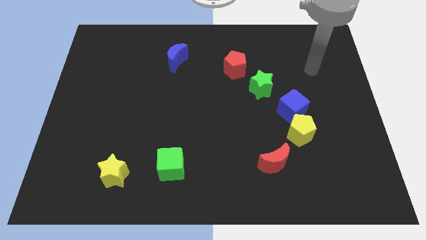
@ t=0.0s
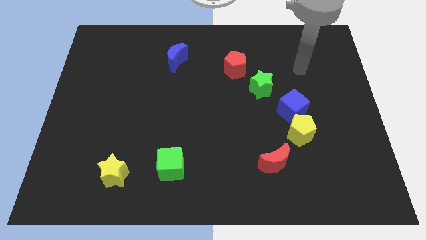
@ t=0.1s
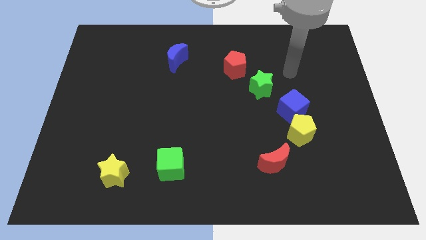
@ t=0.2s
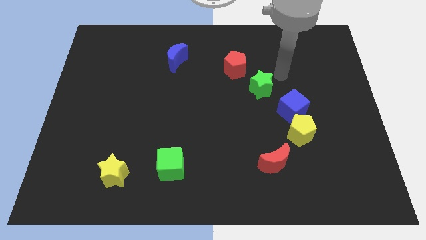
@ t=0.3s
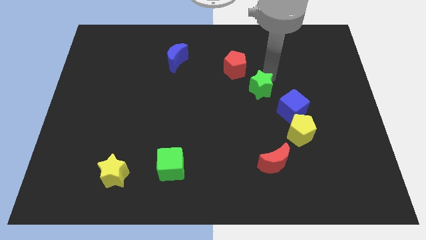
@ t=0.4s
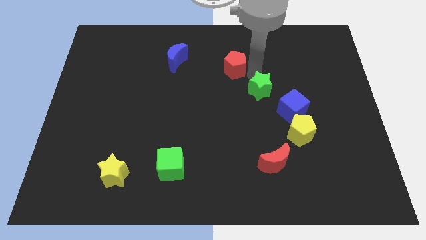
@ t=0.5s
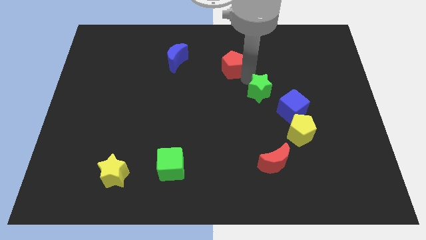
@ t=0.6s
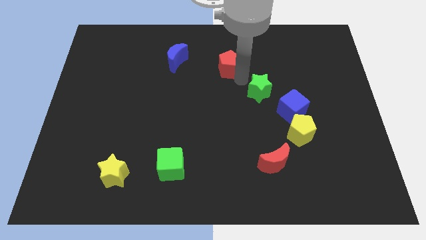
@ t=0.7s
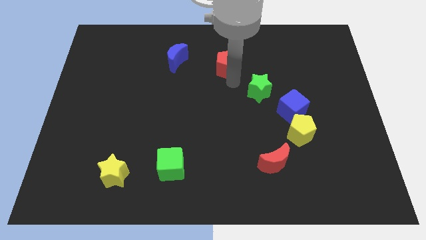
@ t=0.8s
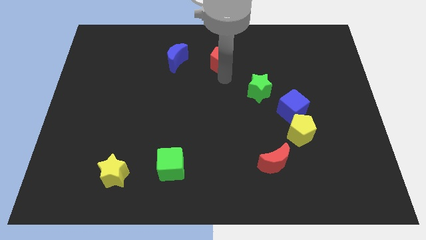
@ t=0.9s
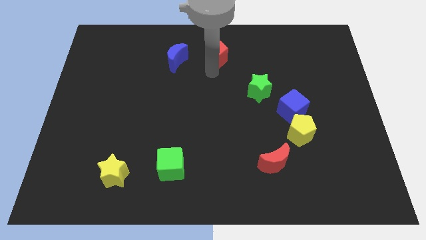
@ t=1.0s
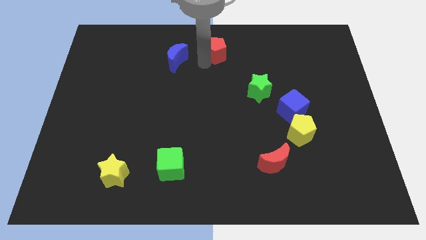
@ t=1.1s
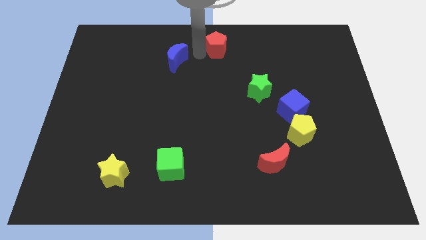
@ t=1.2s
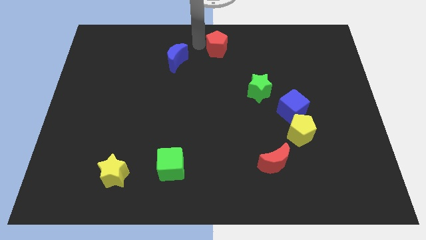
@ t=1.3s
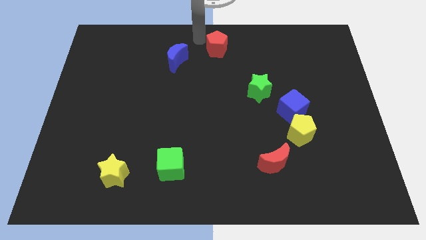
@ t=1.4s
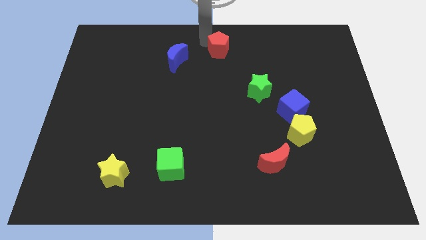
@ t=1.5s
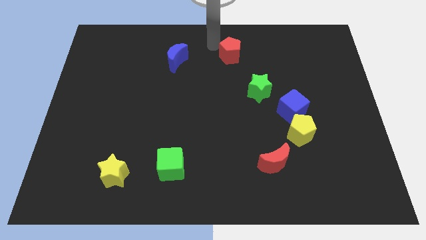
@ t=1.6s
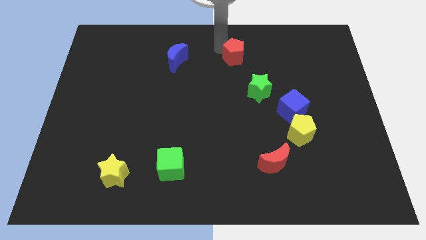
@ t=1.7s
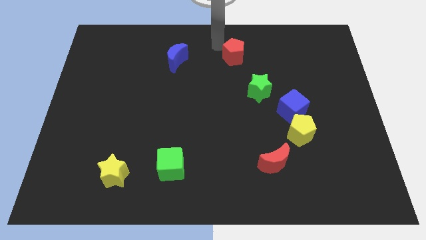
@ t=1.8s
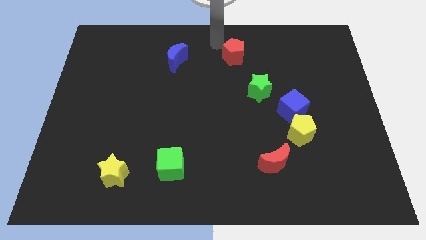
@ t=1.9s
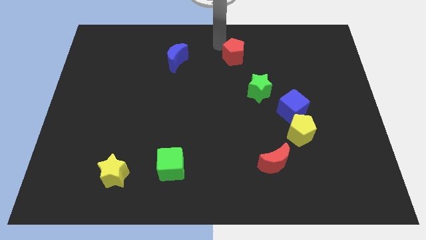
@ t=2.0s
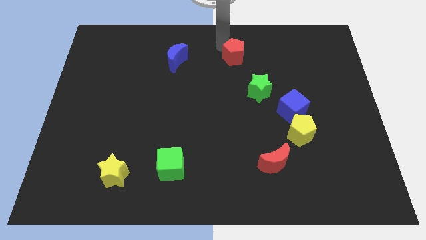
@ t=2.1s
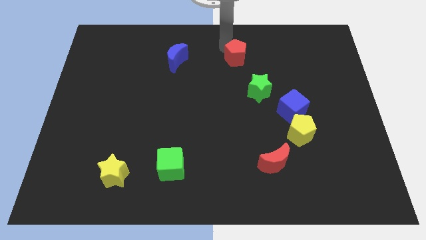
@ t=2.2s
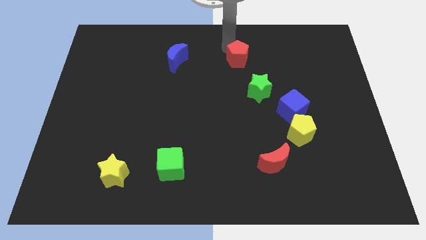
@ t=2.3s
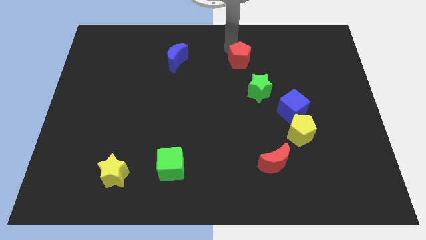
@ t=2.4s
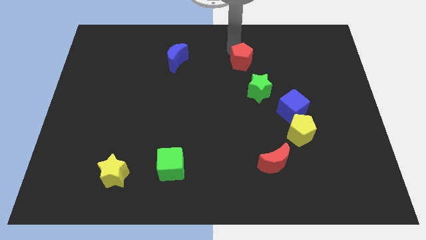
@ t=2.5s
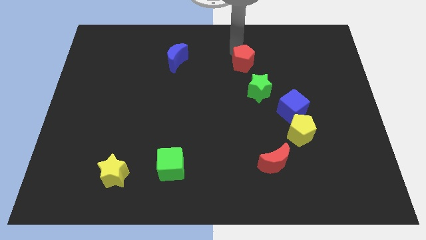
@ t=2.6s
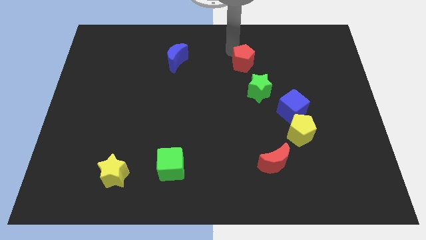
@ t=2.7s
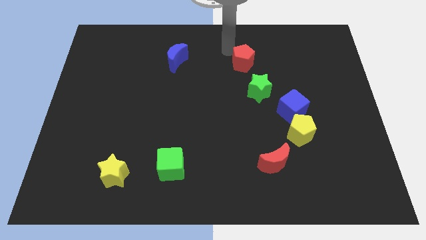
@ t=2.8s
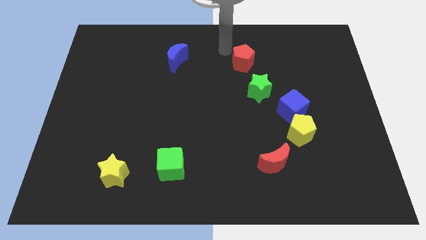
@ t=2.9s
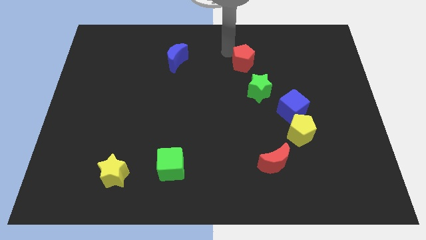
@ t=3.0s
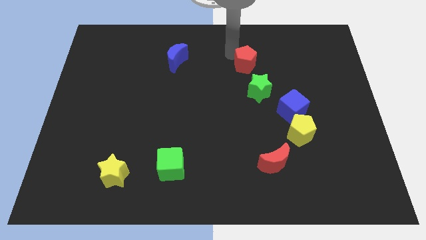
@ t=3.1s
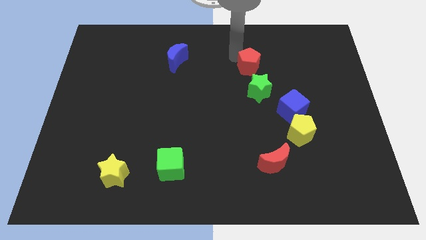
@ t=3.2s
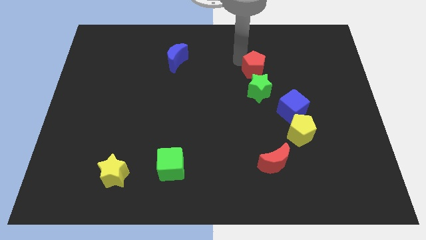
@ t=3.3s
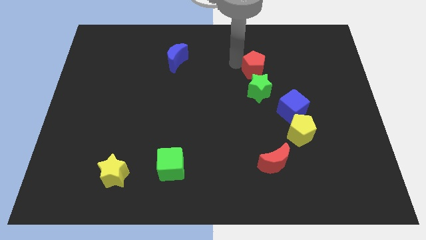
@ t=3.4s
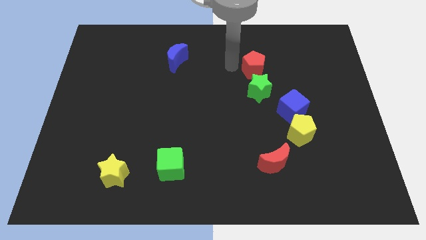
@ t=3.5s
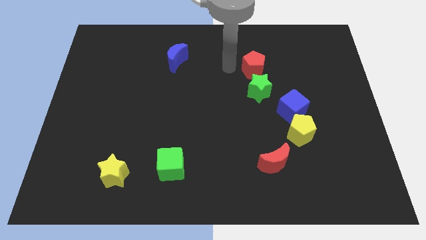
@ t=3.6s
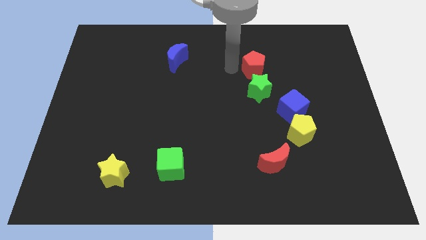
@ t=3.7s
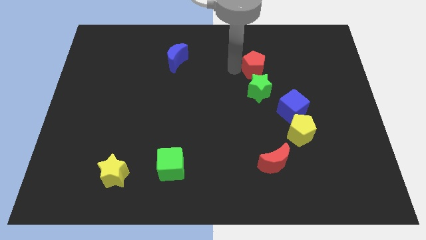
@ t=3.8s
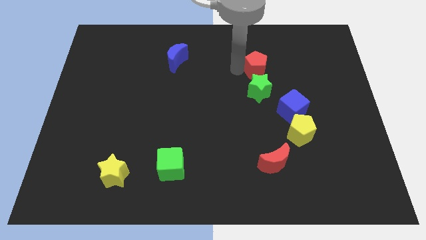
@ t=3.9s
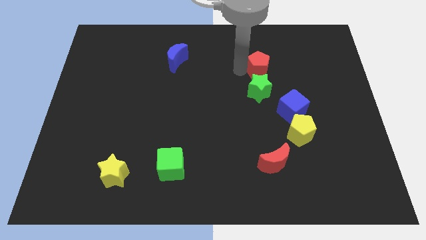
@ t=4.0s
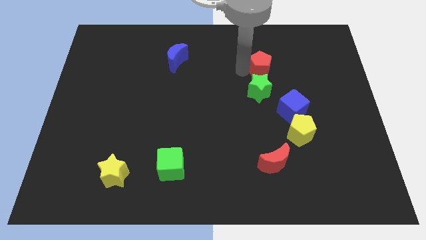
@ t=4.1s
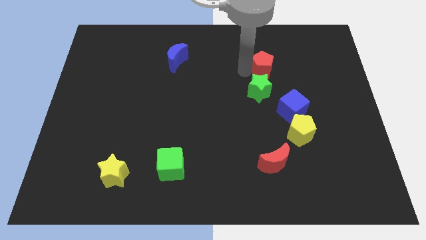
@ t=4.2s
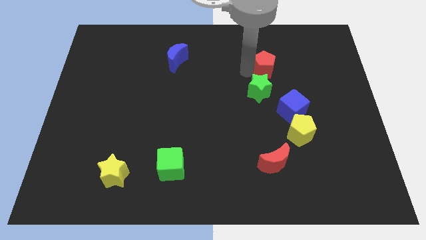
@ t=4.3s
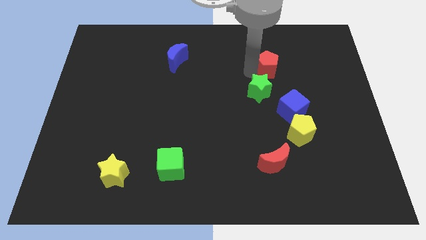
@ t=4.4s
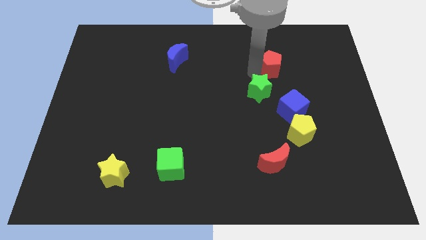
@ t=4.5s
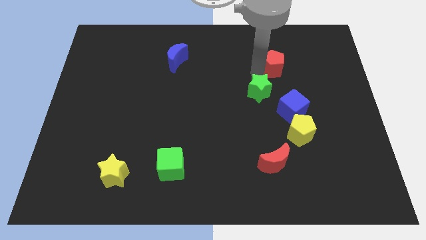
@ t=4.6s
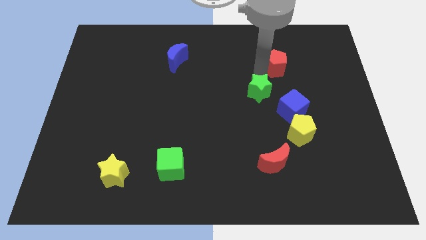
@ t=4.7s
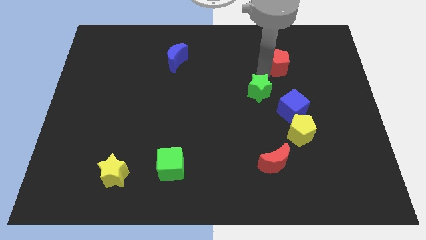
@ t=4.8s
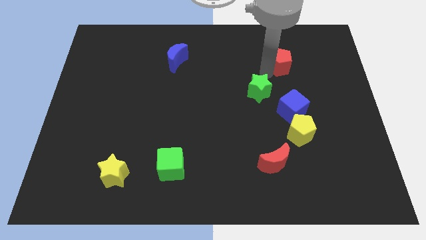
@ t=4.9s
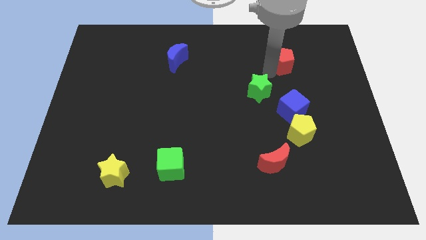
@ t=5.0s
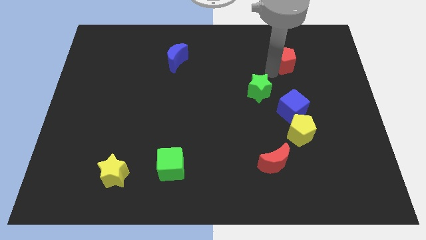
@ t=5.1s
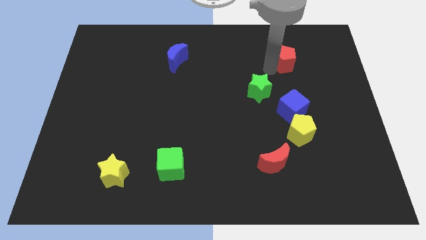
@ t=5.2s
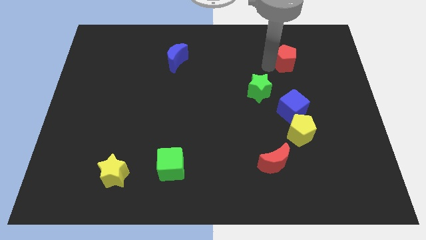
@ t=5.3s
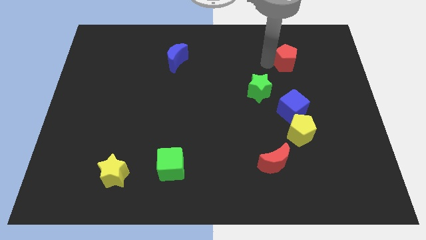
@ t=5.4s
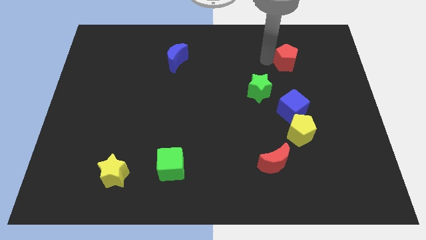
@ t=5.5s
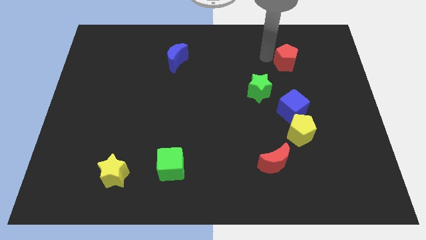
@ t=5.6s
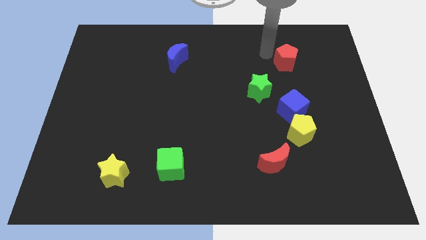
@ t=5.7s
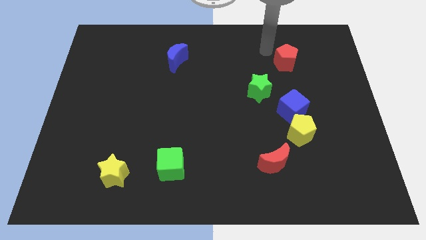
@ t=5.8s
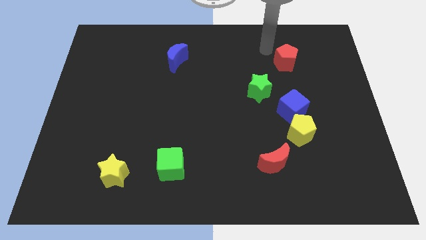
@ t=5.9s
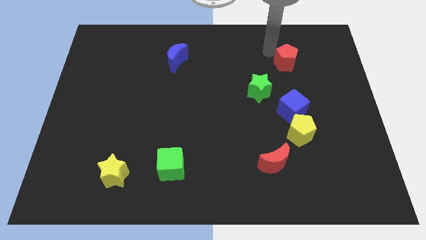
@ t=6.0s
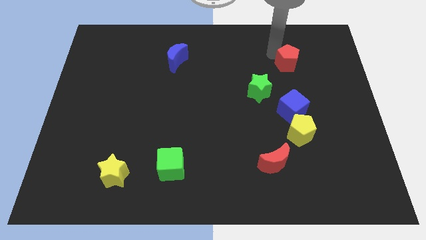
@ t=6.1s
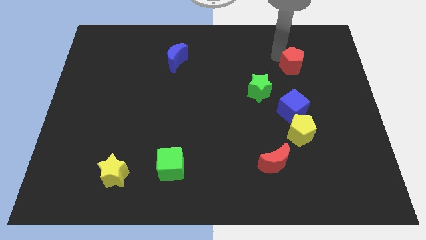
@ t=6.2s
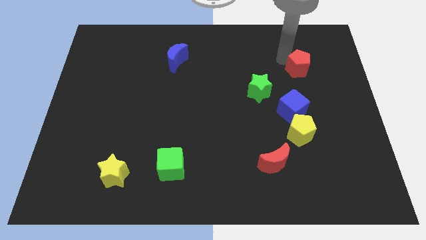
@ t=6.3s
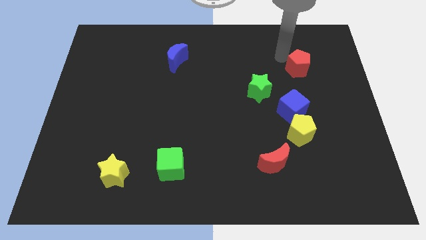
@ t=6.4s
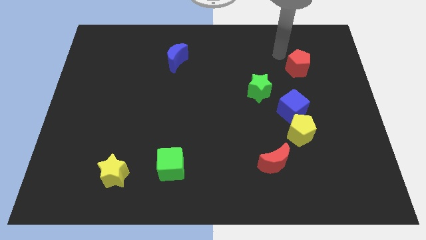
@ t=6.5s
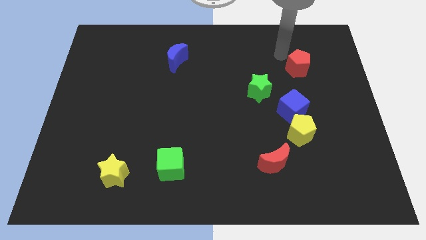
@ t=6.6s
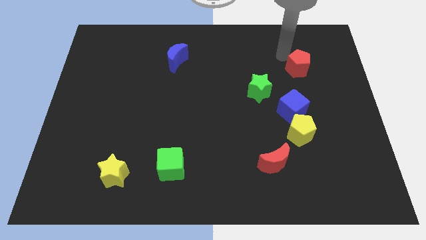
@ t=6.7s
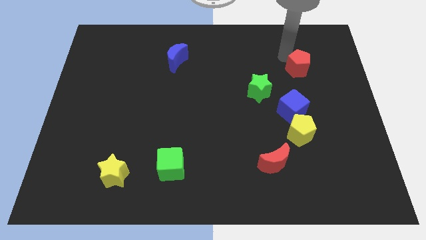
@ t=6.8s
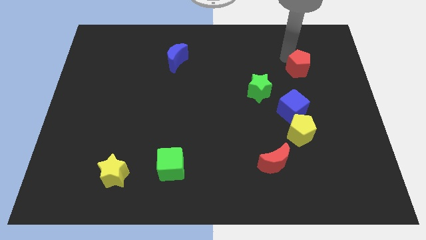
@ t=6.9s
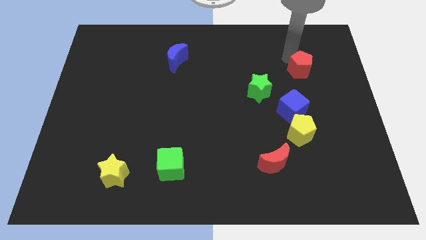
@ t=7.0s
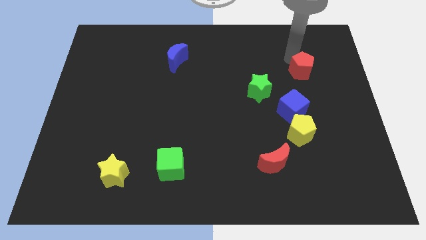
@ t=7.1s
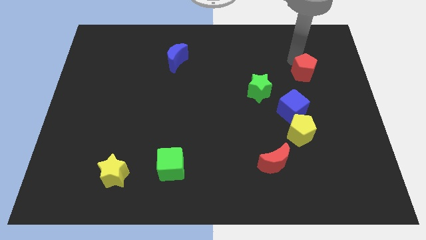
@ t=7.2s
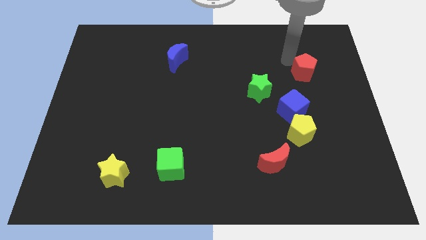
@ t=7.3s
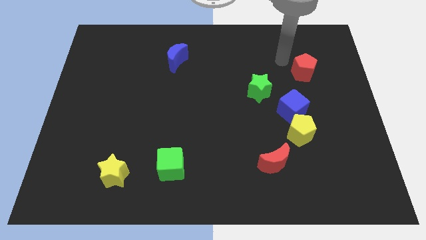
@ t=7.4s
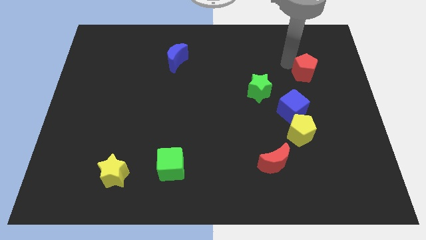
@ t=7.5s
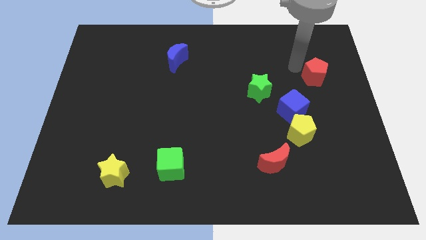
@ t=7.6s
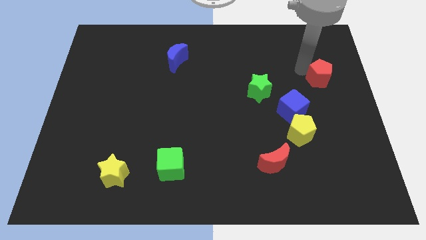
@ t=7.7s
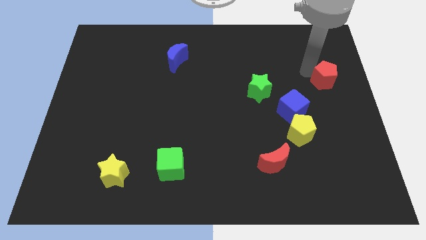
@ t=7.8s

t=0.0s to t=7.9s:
put the red pentagon to the right side
